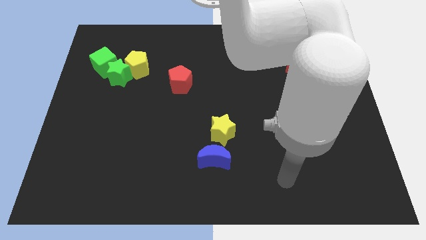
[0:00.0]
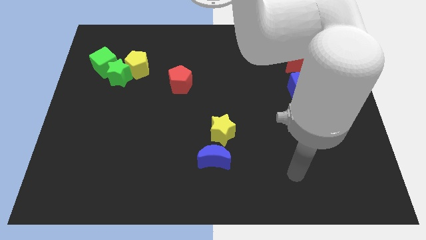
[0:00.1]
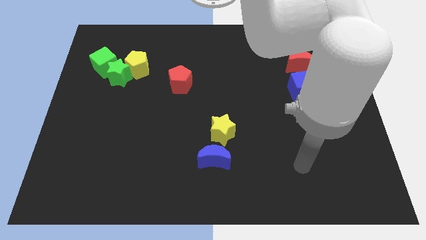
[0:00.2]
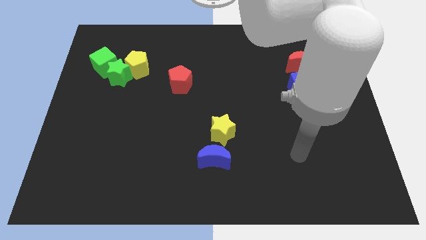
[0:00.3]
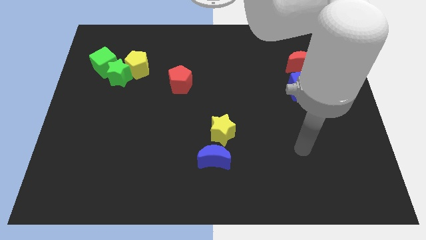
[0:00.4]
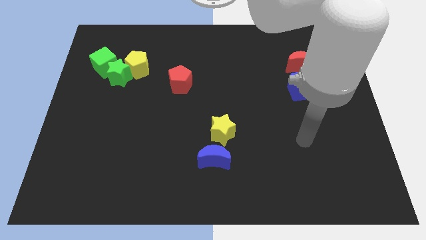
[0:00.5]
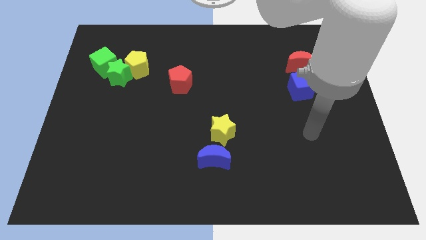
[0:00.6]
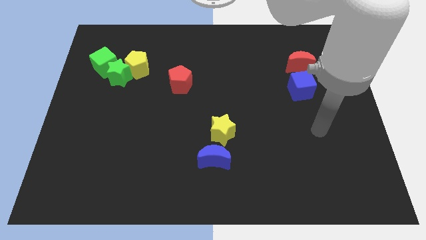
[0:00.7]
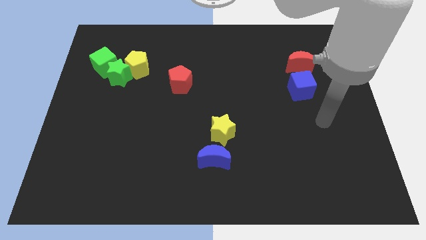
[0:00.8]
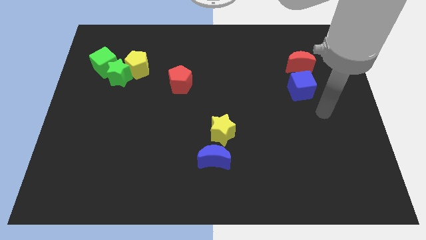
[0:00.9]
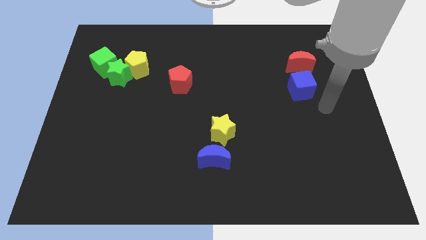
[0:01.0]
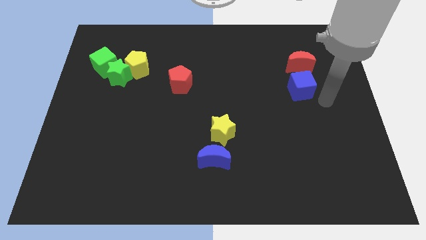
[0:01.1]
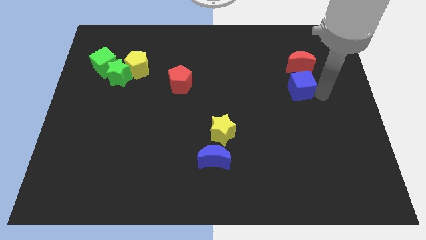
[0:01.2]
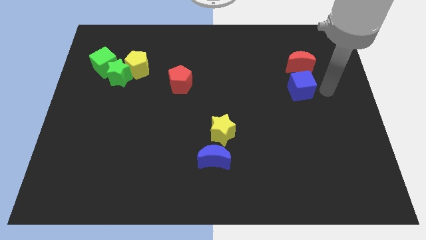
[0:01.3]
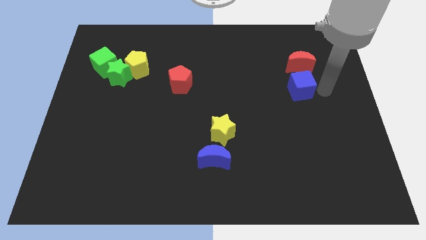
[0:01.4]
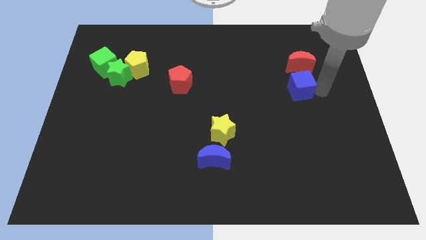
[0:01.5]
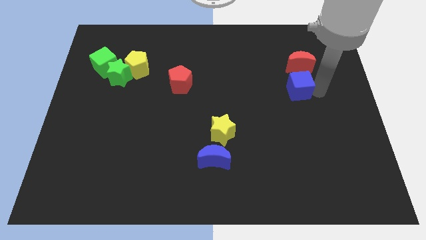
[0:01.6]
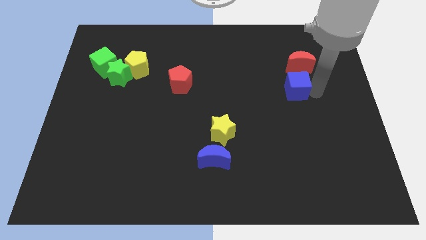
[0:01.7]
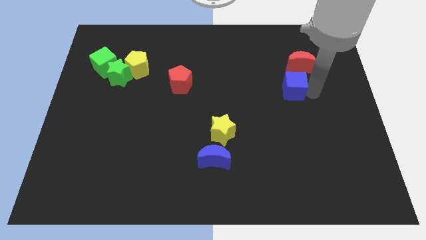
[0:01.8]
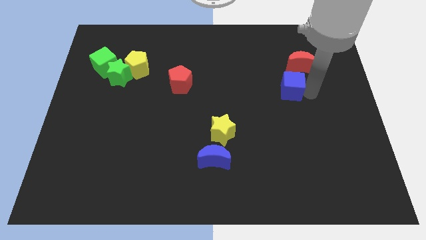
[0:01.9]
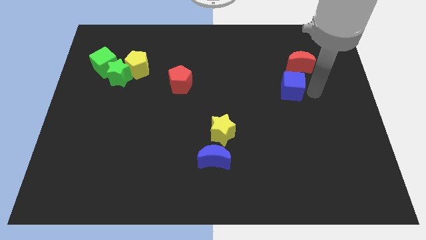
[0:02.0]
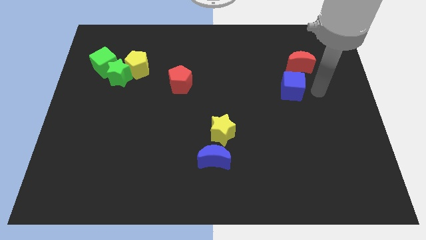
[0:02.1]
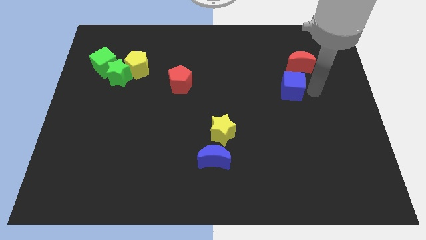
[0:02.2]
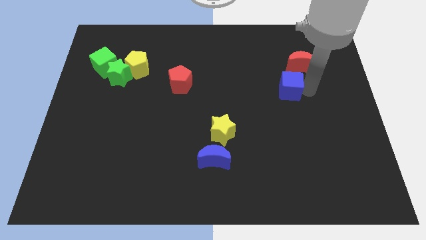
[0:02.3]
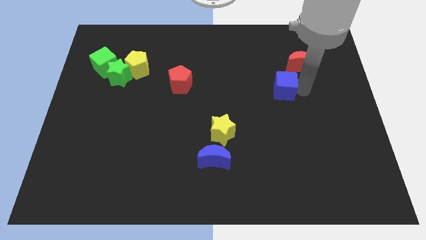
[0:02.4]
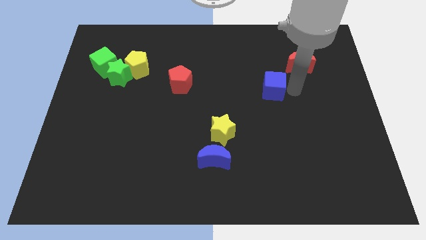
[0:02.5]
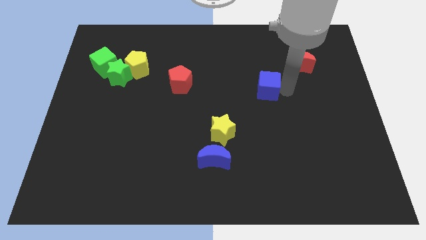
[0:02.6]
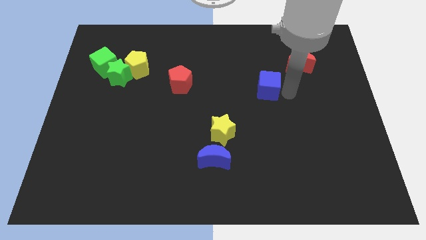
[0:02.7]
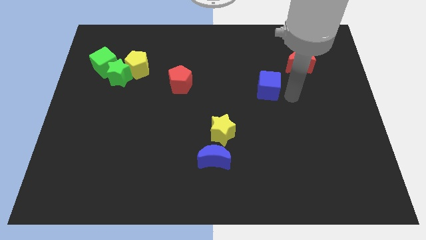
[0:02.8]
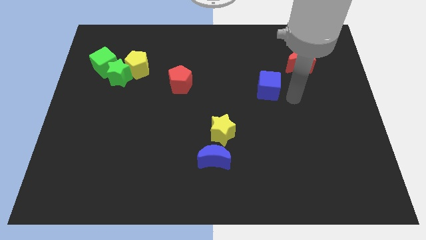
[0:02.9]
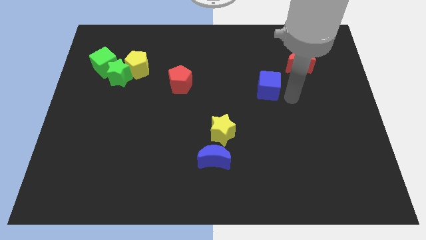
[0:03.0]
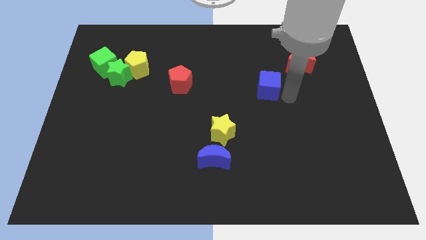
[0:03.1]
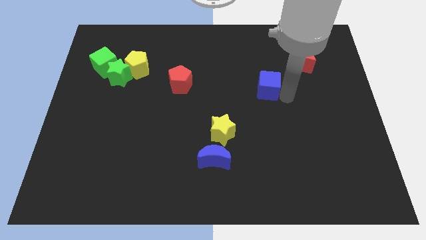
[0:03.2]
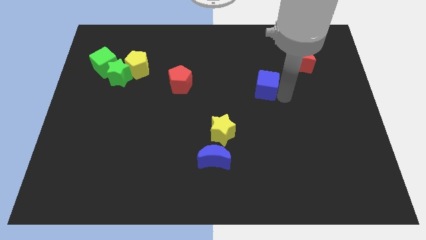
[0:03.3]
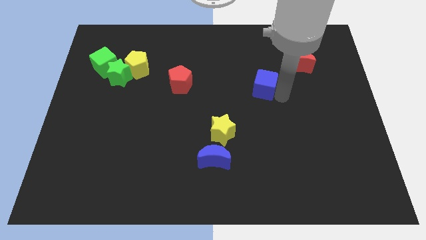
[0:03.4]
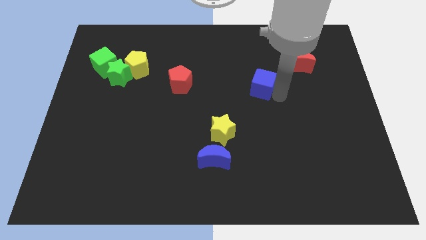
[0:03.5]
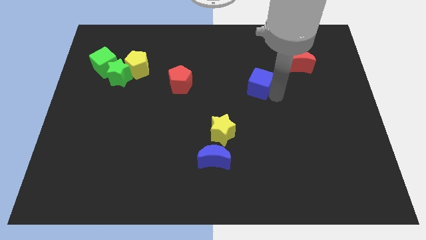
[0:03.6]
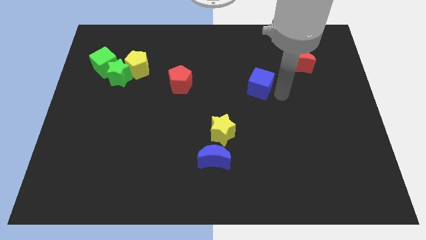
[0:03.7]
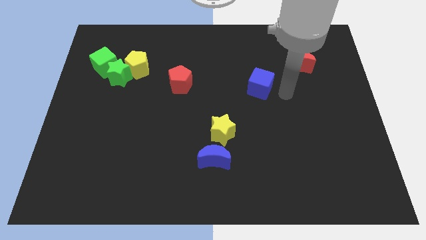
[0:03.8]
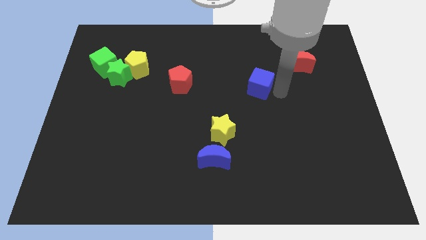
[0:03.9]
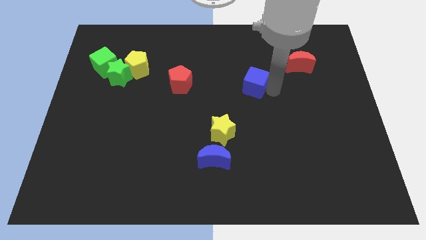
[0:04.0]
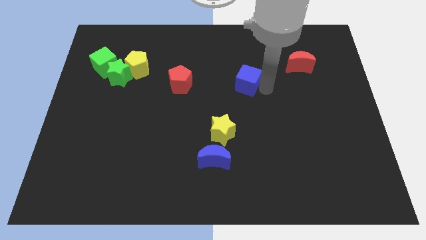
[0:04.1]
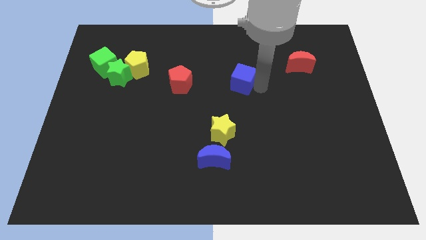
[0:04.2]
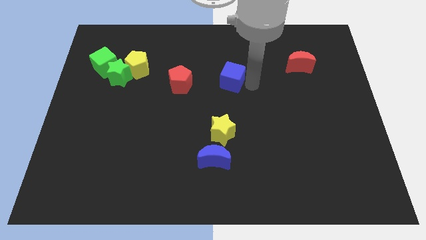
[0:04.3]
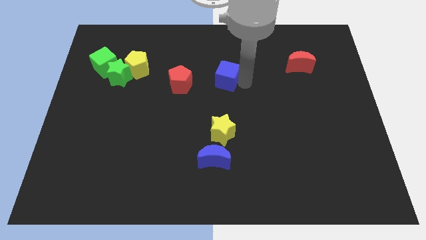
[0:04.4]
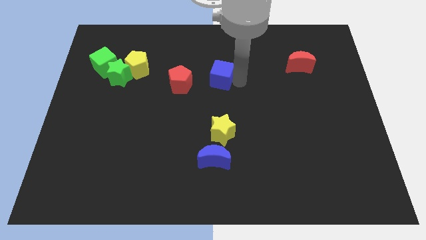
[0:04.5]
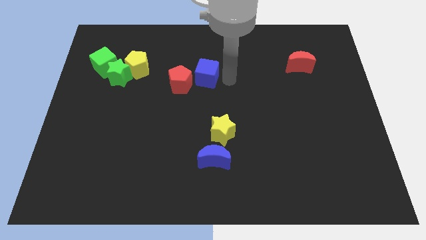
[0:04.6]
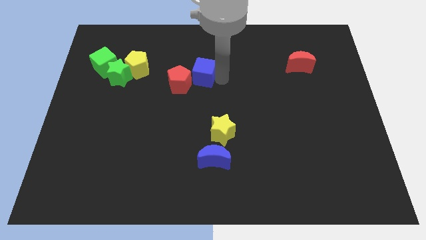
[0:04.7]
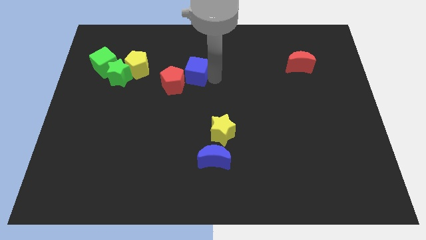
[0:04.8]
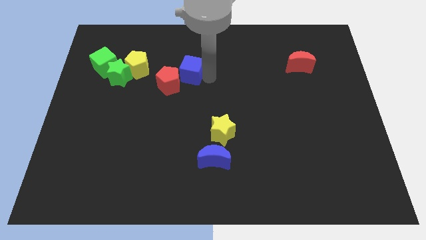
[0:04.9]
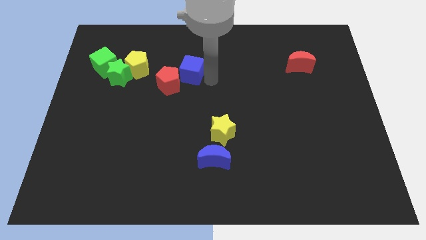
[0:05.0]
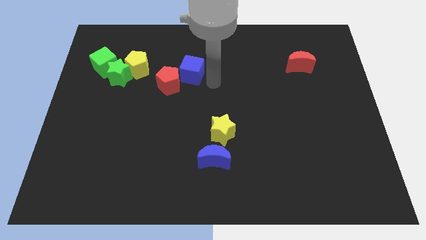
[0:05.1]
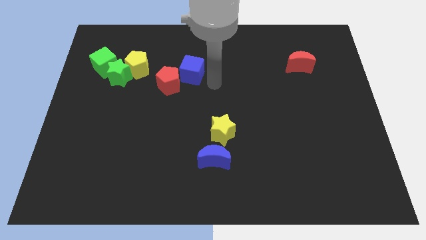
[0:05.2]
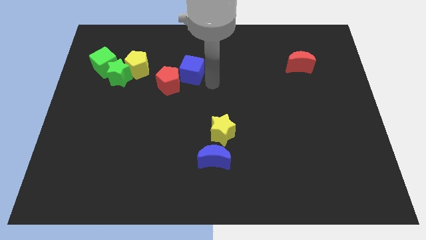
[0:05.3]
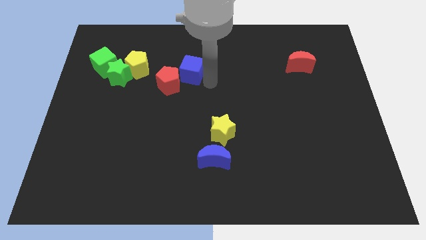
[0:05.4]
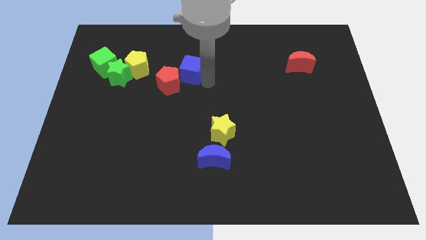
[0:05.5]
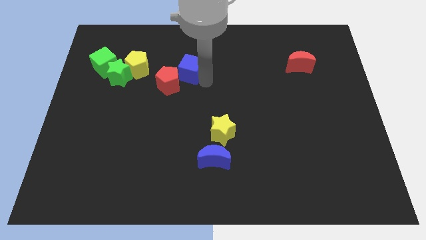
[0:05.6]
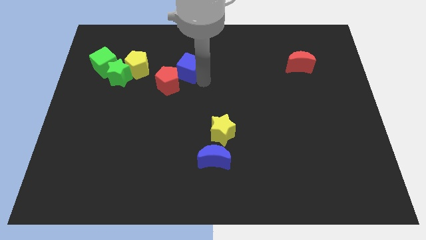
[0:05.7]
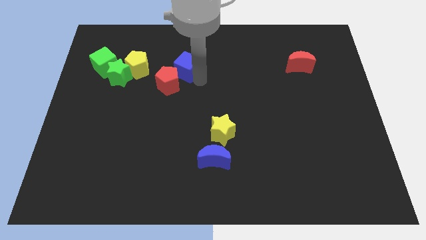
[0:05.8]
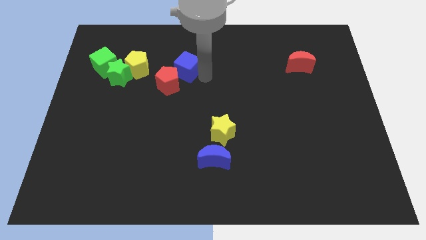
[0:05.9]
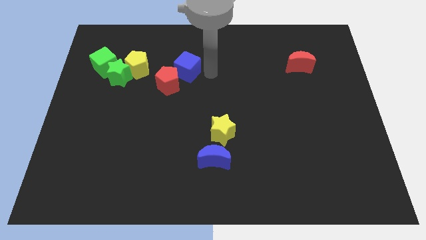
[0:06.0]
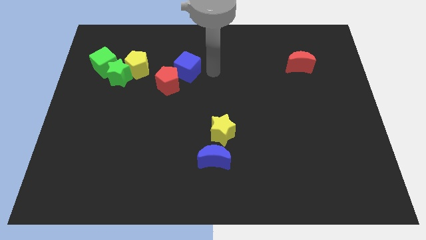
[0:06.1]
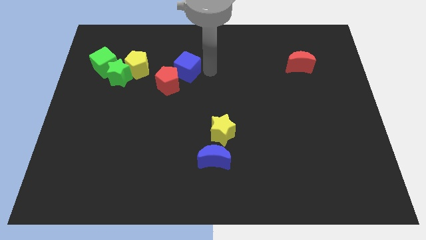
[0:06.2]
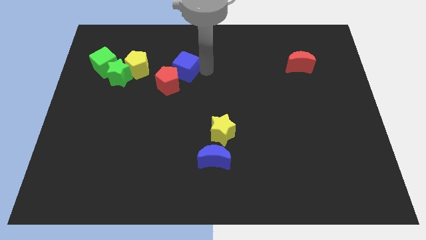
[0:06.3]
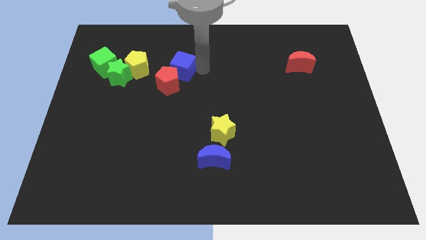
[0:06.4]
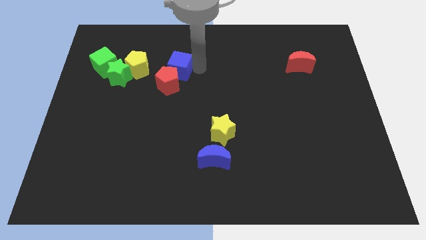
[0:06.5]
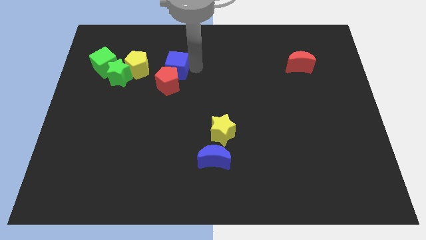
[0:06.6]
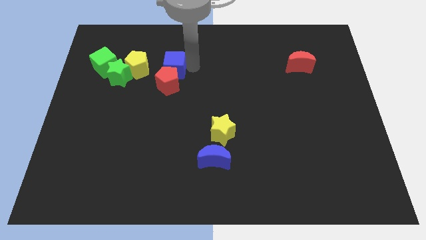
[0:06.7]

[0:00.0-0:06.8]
slide the blue cube to the top left side of the red pentagon

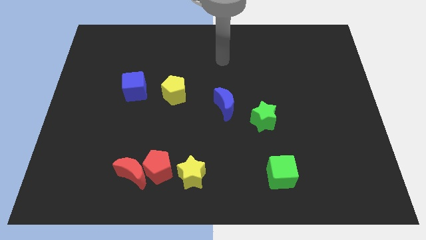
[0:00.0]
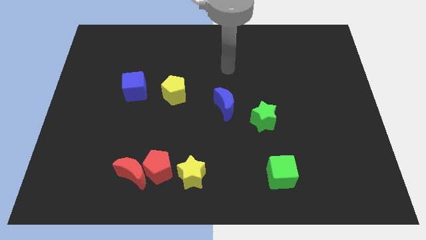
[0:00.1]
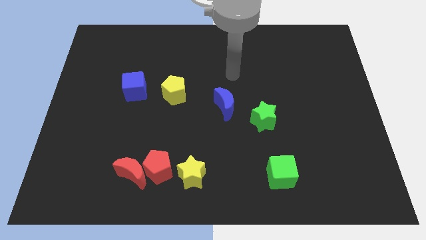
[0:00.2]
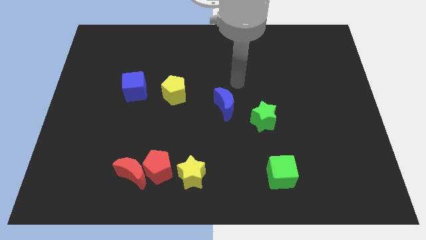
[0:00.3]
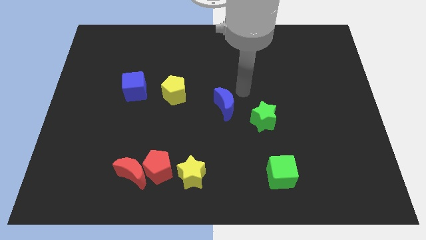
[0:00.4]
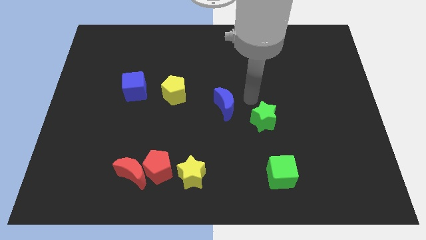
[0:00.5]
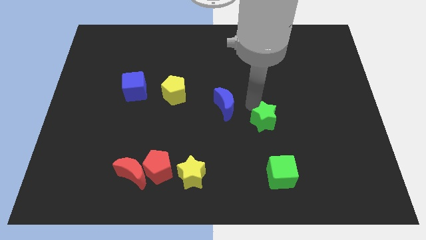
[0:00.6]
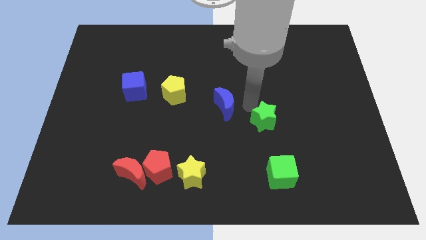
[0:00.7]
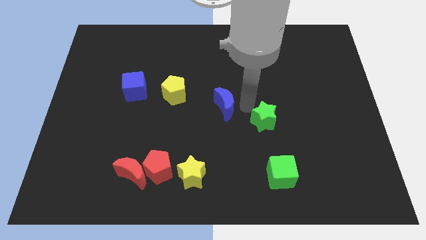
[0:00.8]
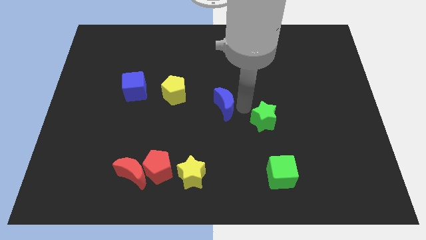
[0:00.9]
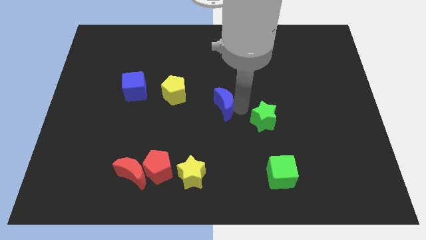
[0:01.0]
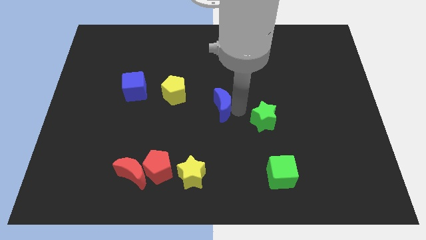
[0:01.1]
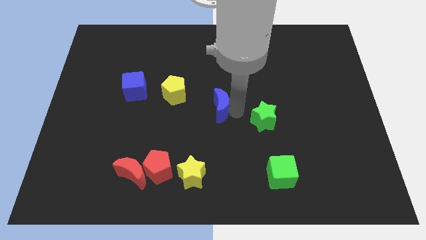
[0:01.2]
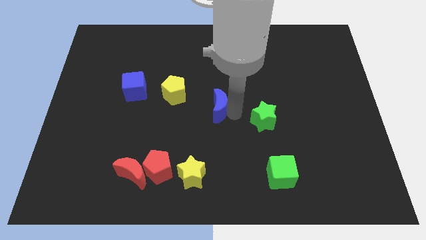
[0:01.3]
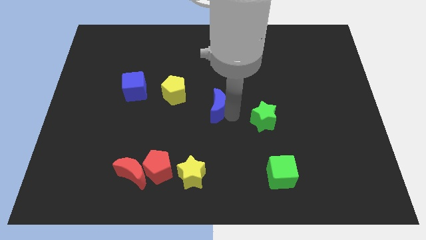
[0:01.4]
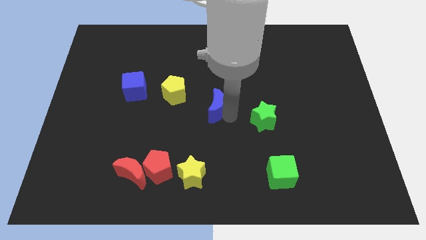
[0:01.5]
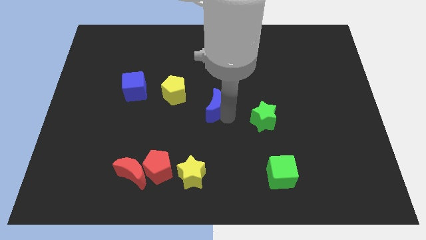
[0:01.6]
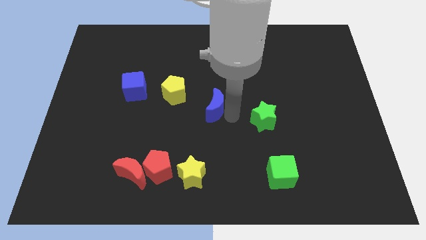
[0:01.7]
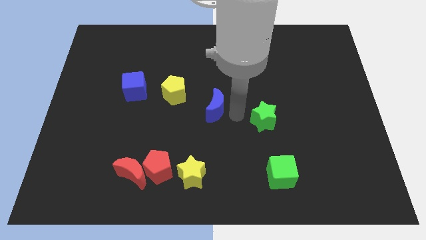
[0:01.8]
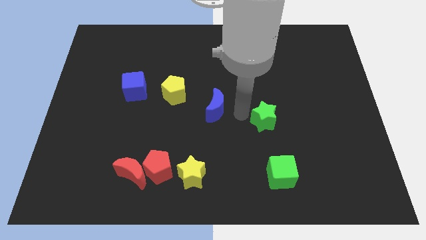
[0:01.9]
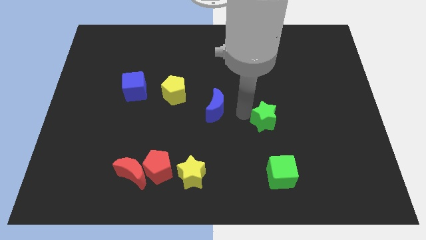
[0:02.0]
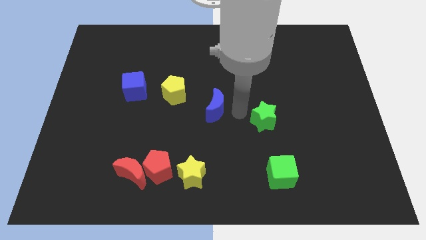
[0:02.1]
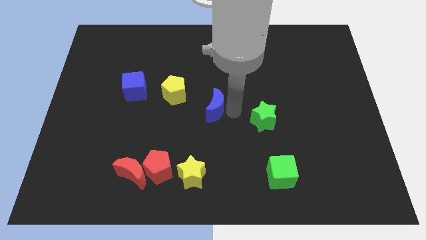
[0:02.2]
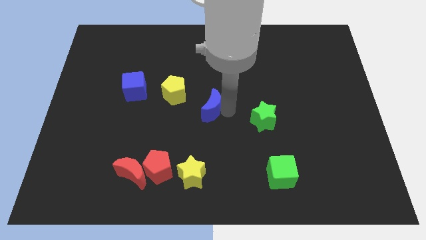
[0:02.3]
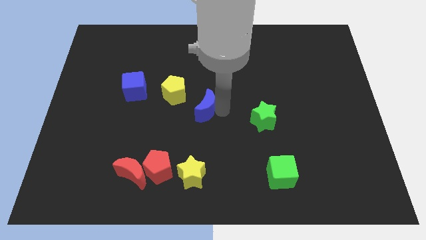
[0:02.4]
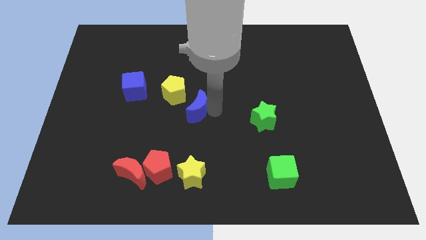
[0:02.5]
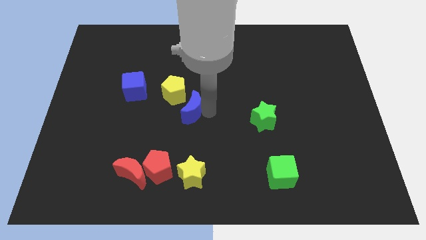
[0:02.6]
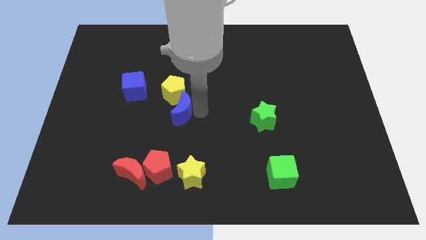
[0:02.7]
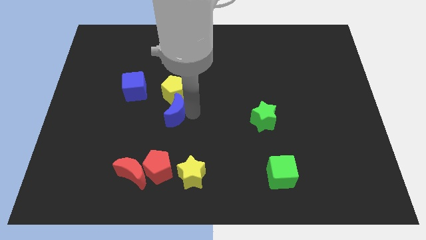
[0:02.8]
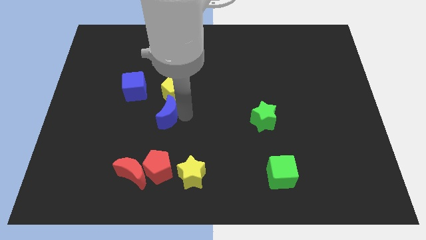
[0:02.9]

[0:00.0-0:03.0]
push the blue moon to the bottom right side of the blue cube
